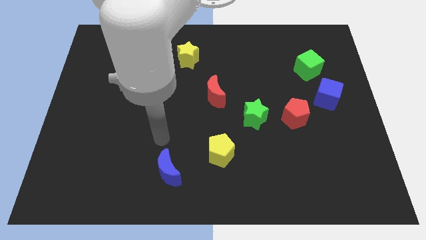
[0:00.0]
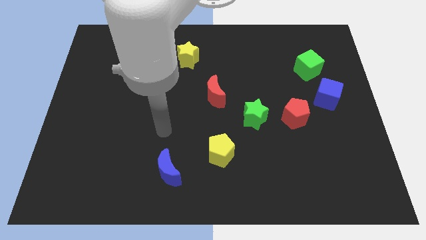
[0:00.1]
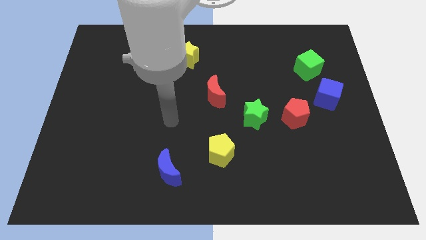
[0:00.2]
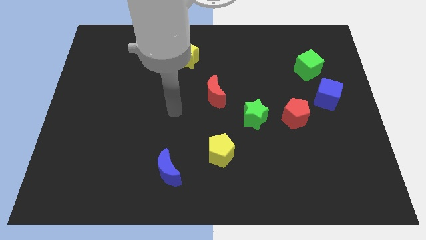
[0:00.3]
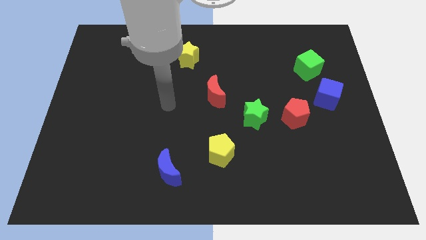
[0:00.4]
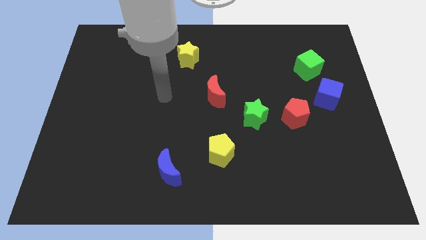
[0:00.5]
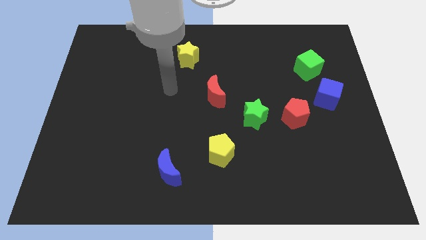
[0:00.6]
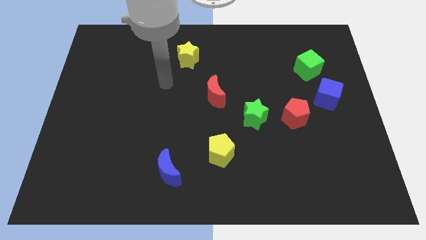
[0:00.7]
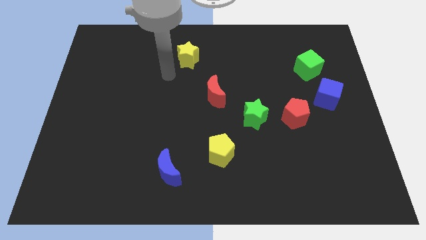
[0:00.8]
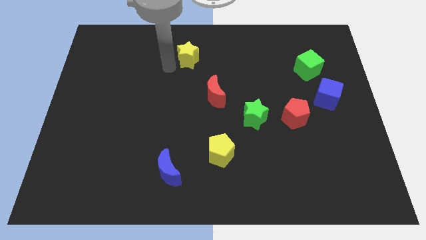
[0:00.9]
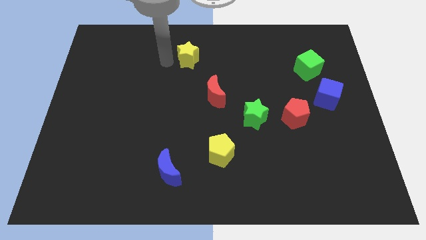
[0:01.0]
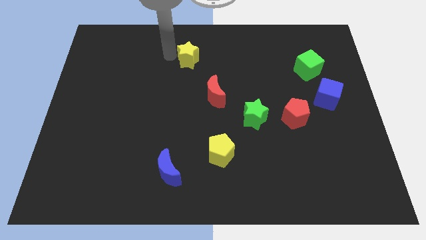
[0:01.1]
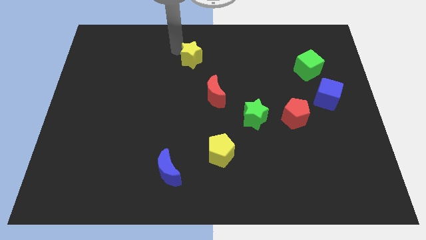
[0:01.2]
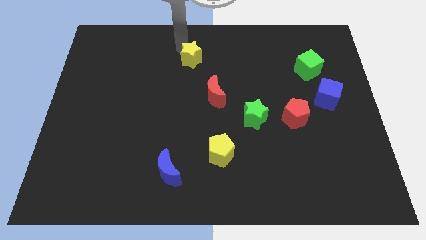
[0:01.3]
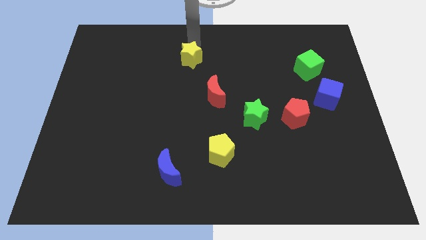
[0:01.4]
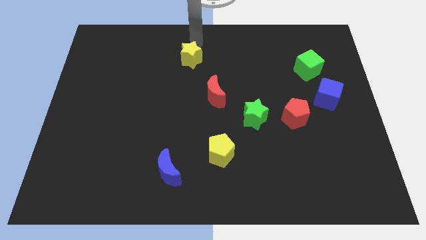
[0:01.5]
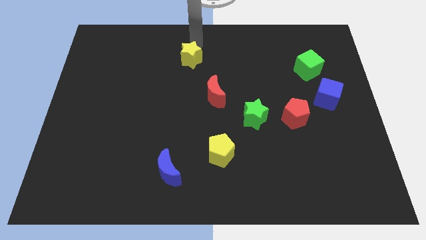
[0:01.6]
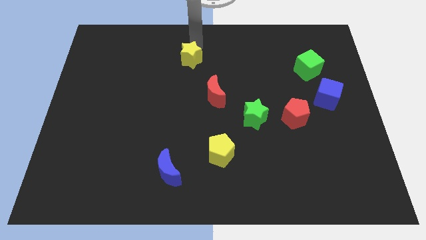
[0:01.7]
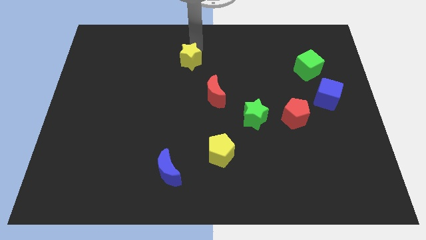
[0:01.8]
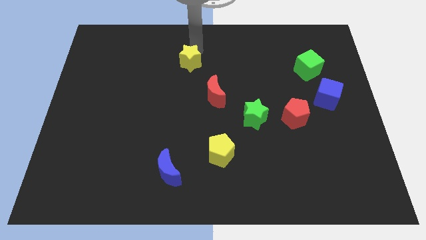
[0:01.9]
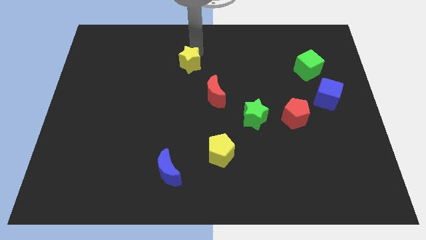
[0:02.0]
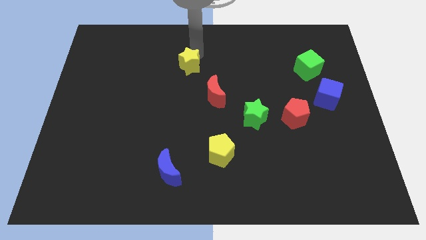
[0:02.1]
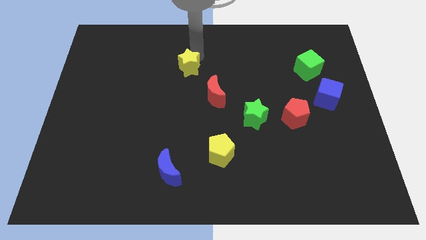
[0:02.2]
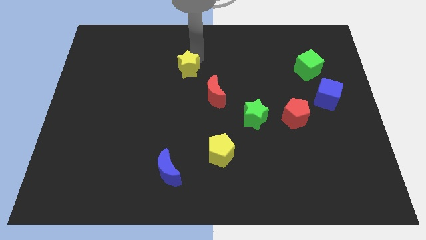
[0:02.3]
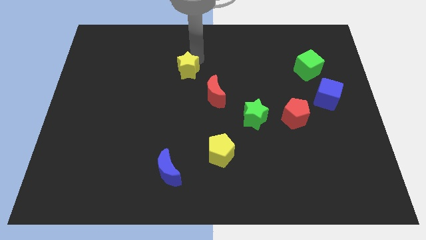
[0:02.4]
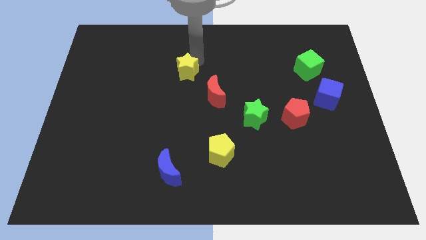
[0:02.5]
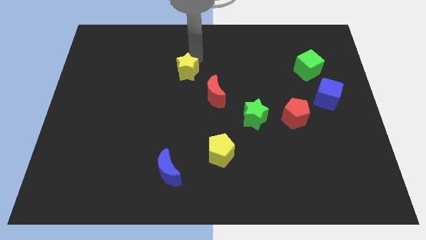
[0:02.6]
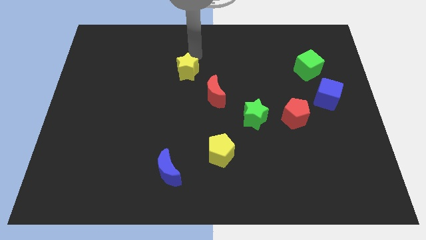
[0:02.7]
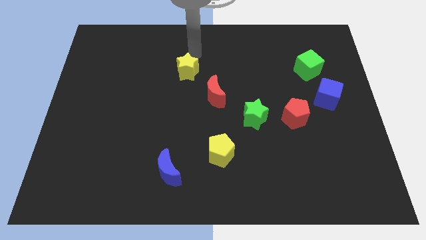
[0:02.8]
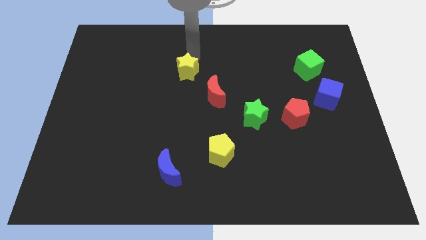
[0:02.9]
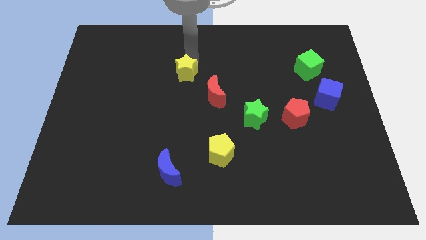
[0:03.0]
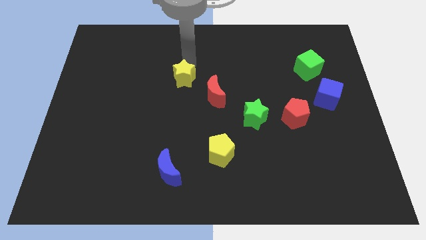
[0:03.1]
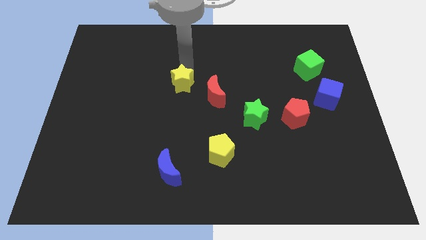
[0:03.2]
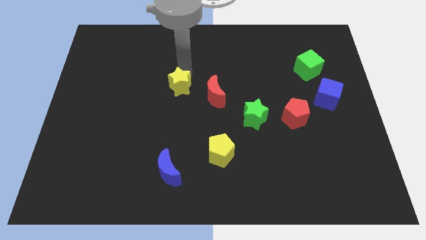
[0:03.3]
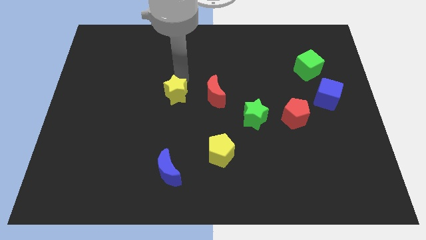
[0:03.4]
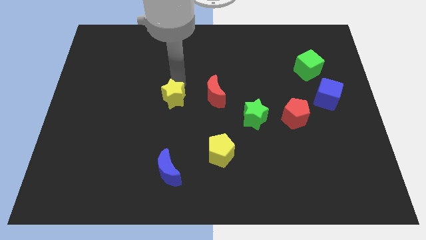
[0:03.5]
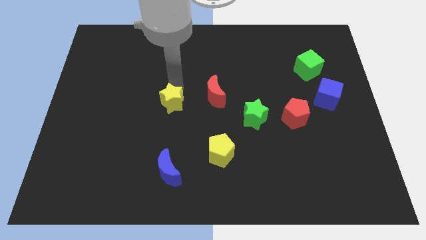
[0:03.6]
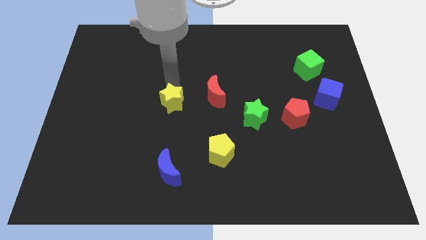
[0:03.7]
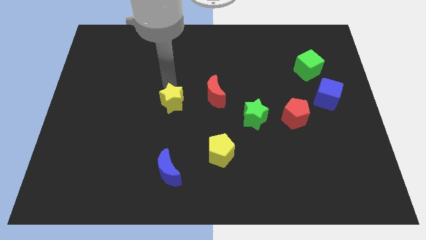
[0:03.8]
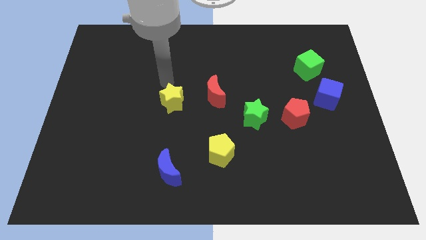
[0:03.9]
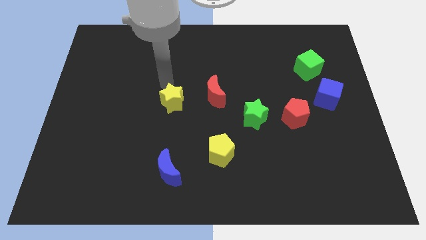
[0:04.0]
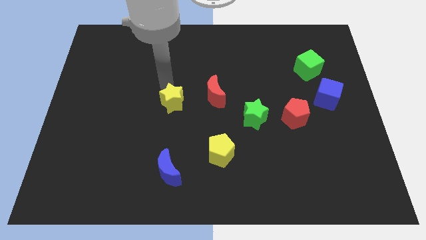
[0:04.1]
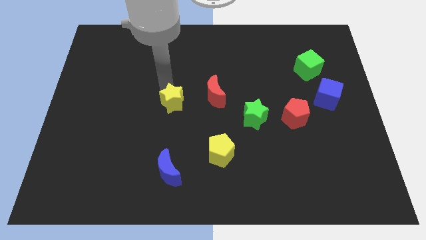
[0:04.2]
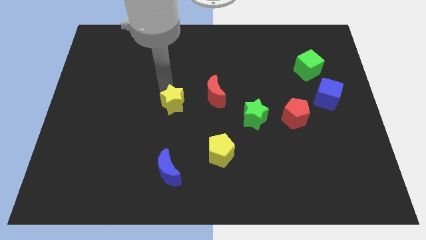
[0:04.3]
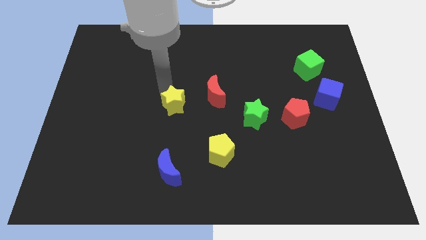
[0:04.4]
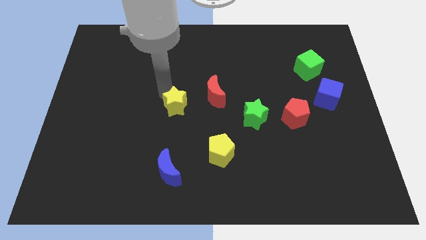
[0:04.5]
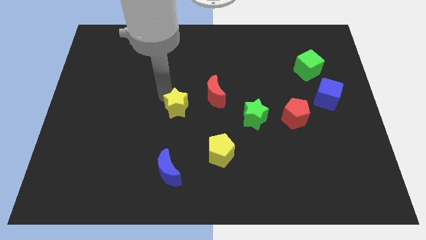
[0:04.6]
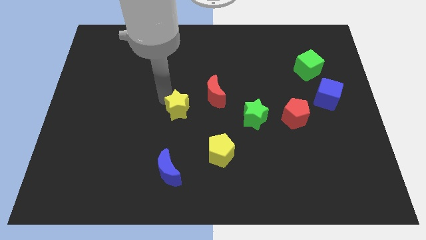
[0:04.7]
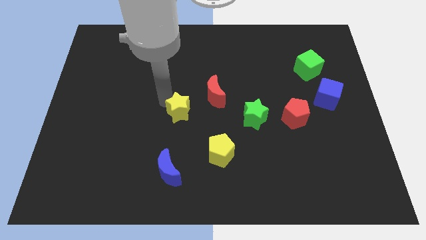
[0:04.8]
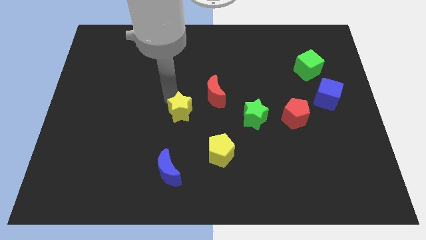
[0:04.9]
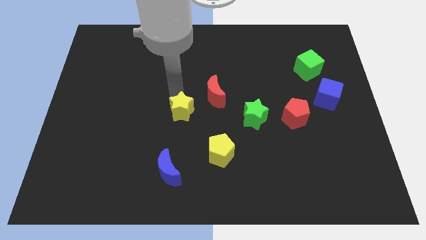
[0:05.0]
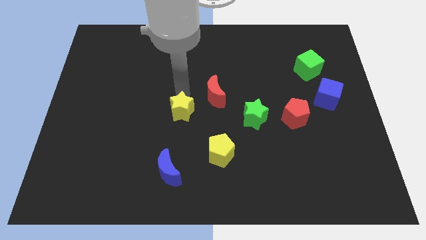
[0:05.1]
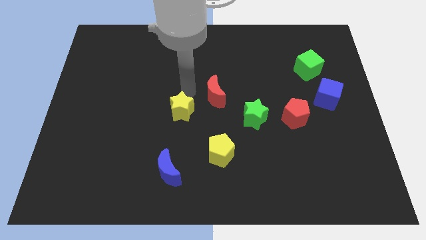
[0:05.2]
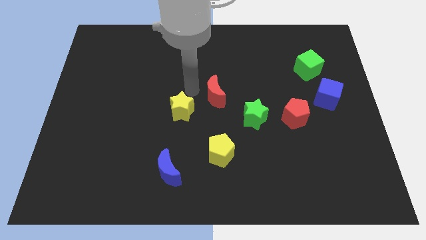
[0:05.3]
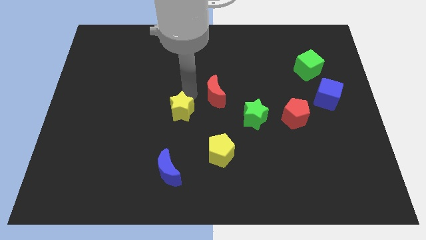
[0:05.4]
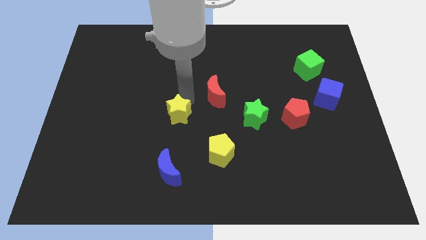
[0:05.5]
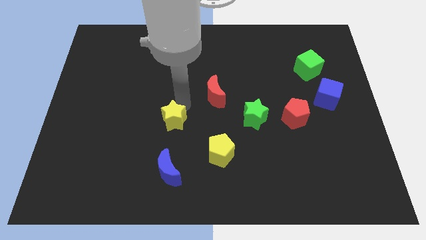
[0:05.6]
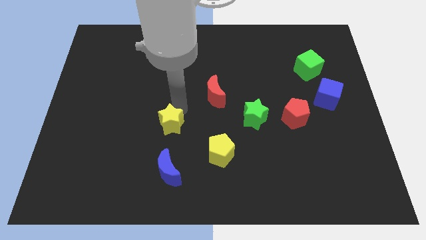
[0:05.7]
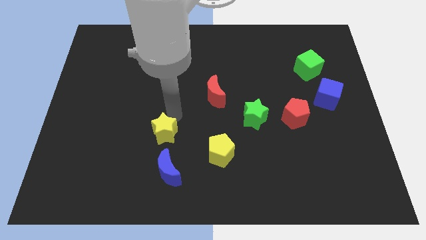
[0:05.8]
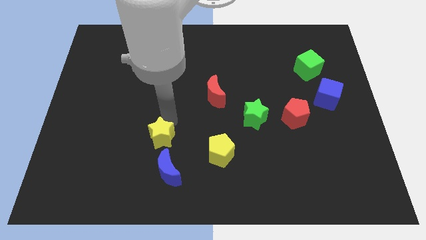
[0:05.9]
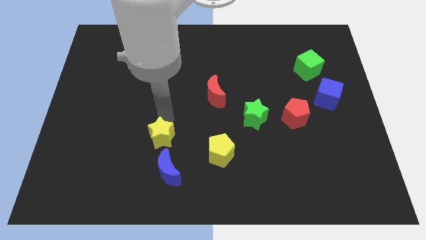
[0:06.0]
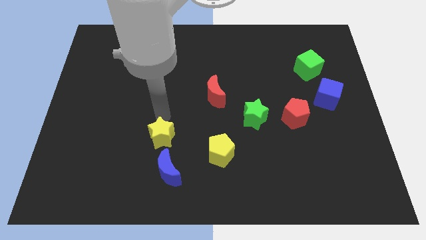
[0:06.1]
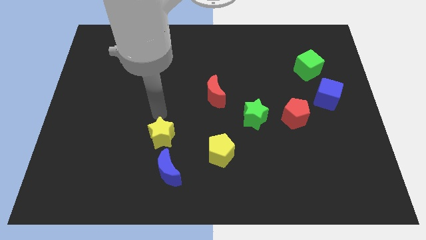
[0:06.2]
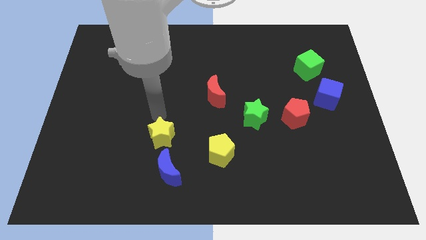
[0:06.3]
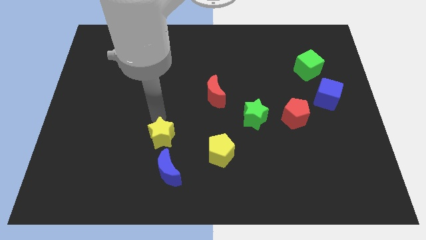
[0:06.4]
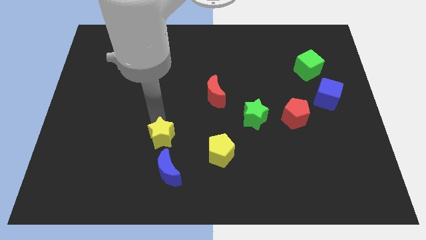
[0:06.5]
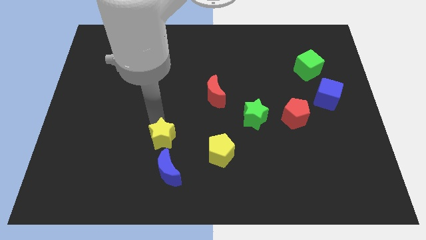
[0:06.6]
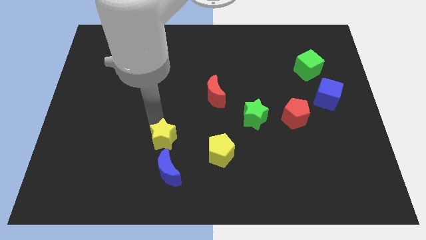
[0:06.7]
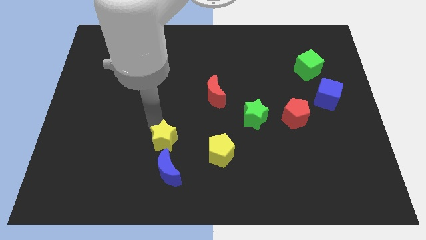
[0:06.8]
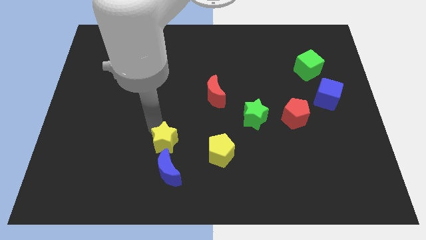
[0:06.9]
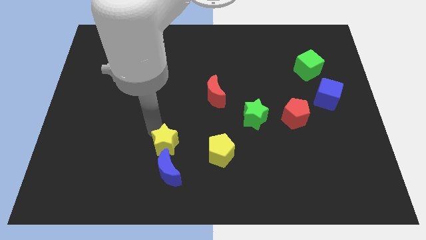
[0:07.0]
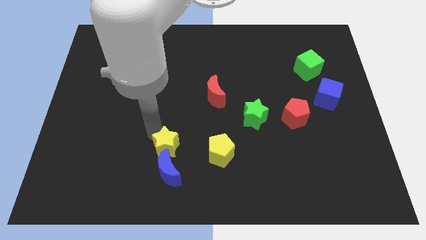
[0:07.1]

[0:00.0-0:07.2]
move the yellow star close to the blue moon

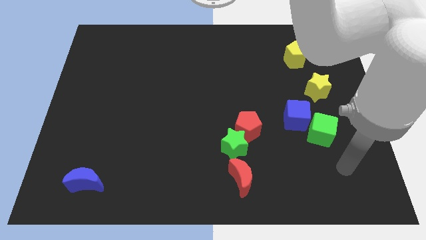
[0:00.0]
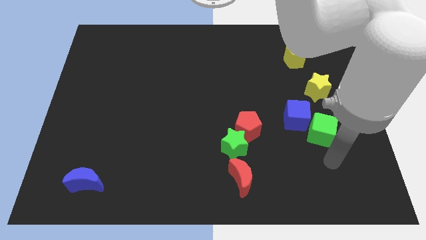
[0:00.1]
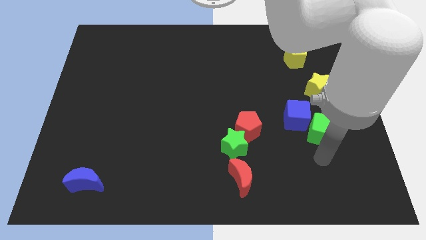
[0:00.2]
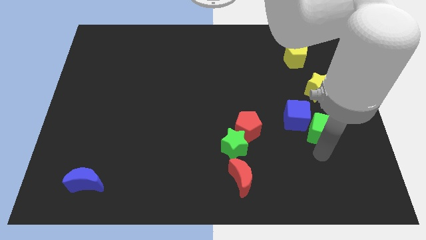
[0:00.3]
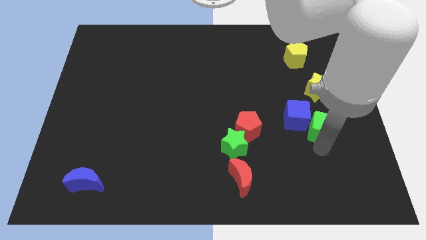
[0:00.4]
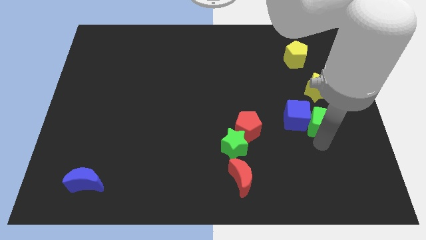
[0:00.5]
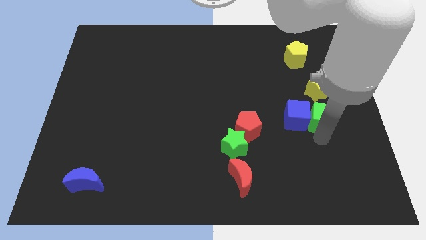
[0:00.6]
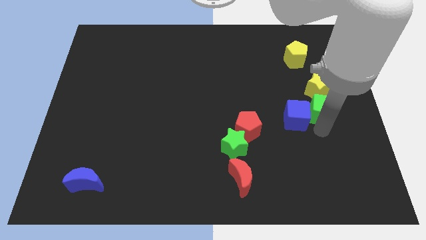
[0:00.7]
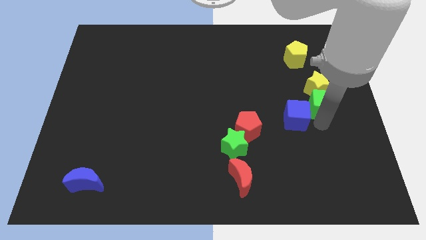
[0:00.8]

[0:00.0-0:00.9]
slide the green cube towards the yellow star
